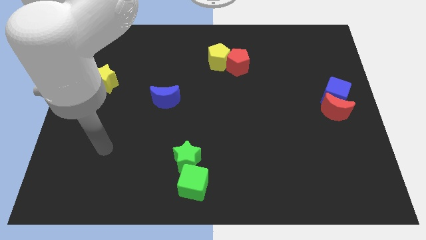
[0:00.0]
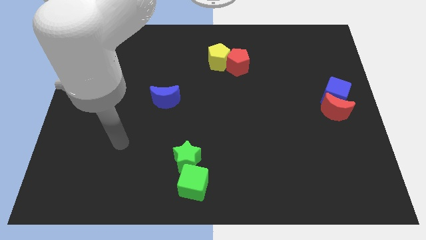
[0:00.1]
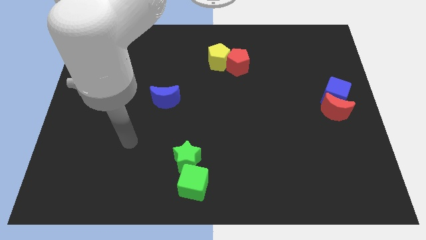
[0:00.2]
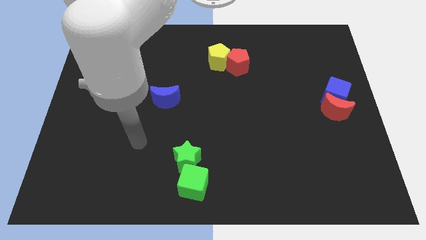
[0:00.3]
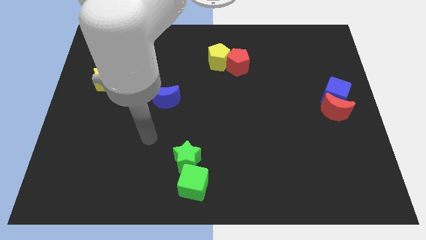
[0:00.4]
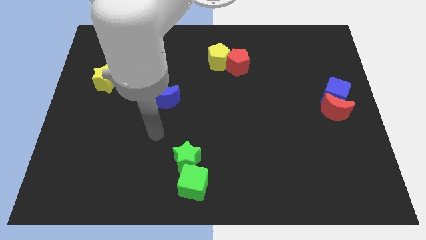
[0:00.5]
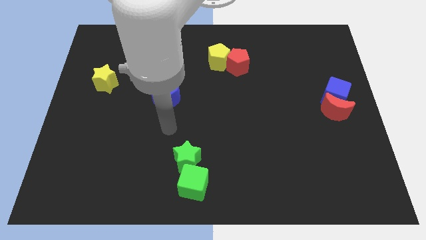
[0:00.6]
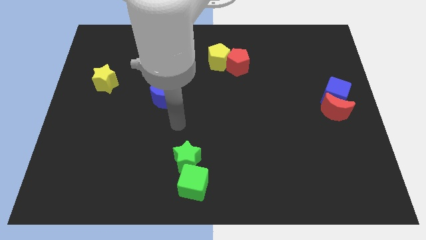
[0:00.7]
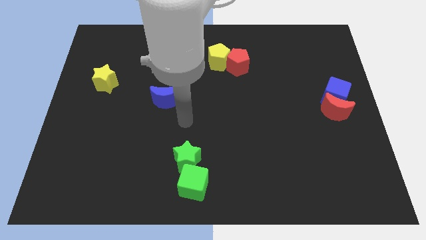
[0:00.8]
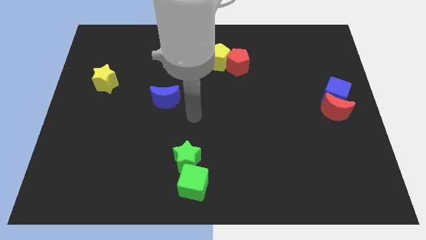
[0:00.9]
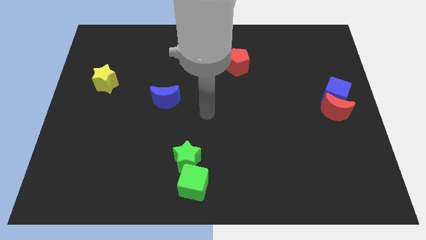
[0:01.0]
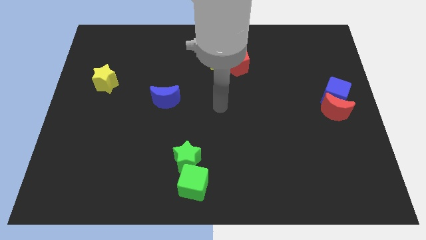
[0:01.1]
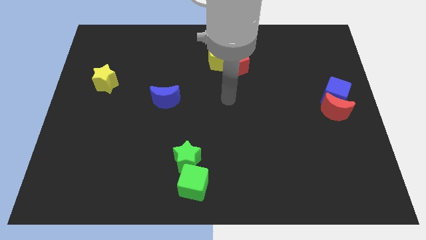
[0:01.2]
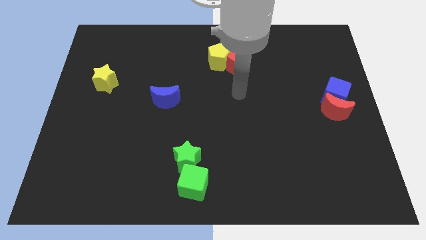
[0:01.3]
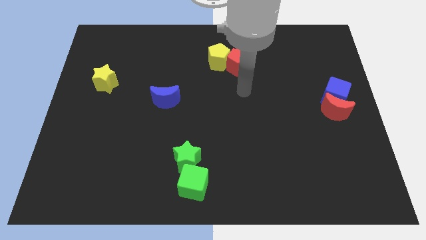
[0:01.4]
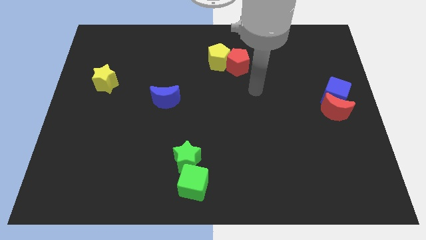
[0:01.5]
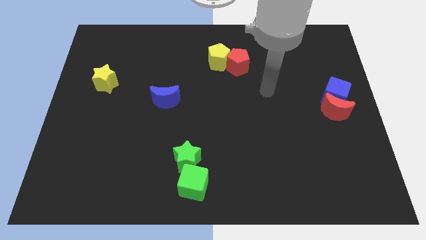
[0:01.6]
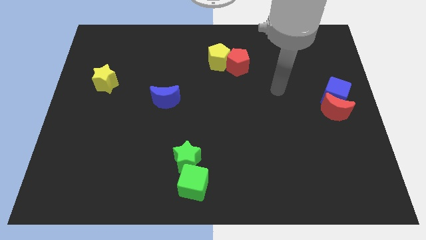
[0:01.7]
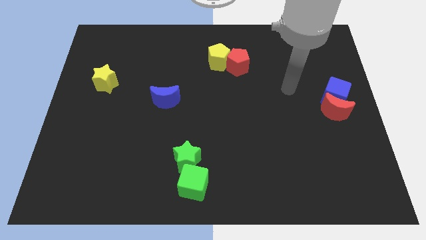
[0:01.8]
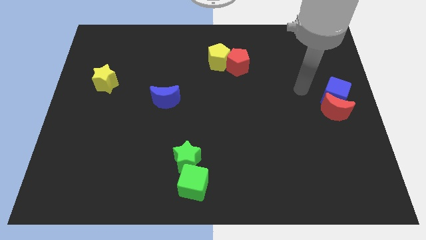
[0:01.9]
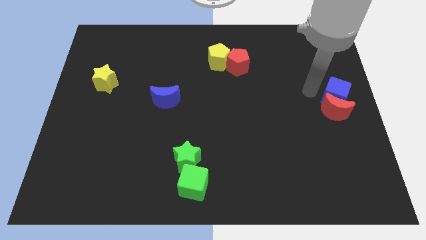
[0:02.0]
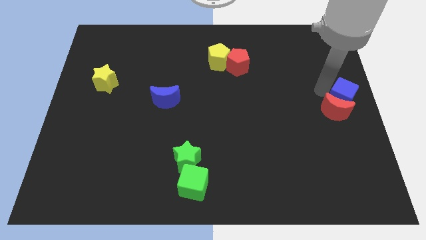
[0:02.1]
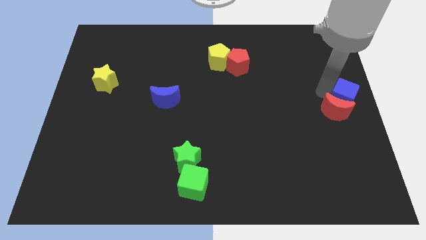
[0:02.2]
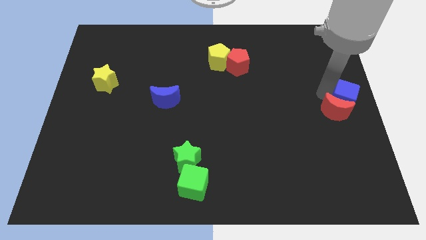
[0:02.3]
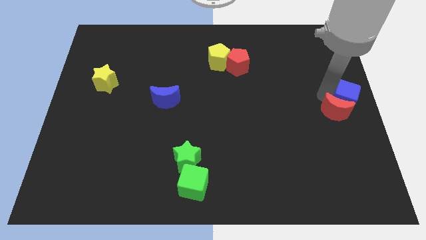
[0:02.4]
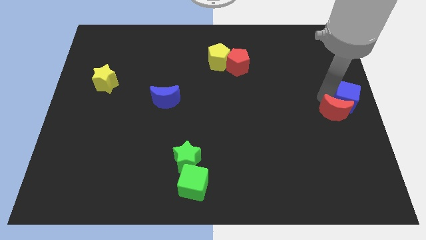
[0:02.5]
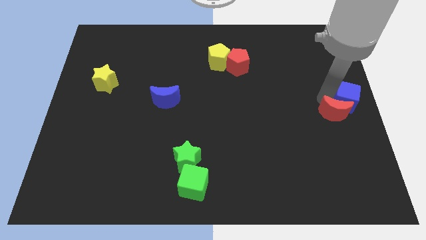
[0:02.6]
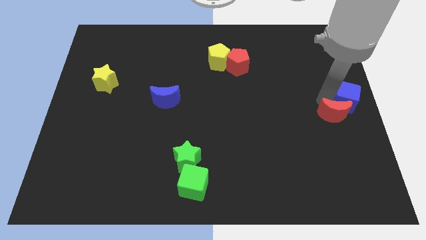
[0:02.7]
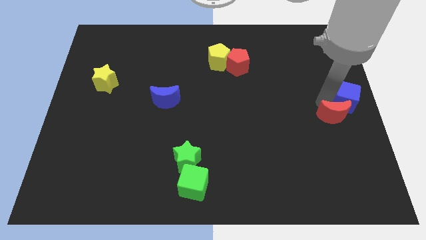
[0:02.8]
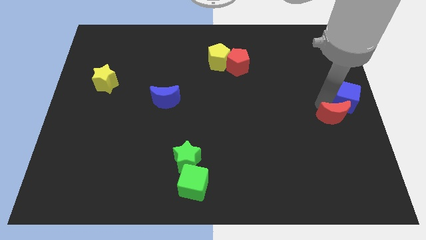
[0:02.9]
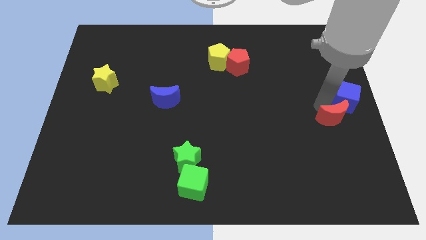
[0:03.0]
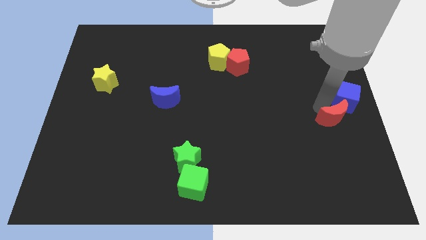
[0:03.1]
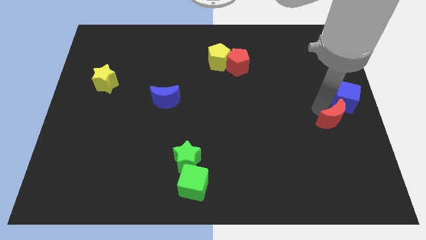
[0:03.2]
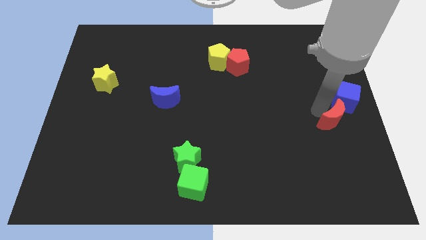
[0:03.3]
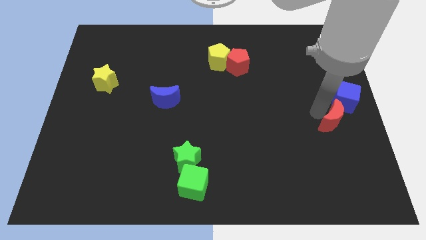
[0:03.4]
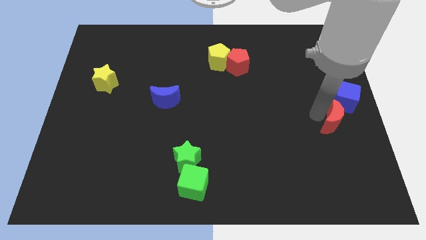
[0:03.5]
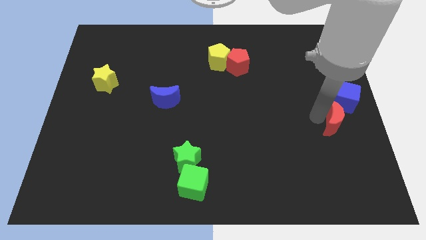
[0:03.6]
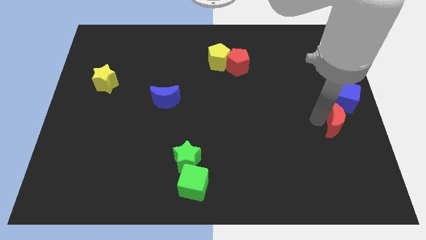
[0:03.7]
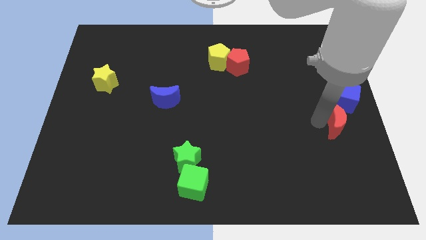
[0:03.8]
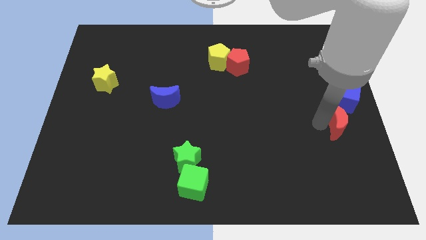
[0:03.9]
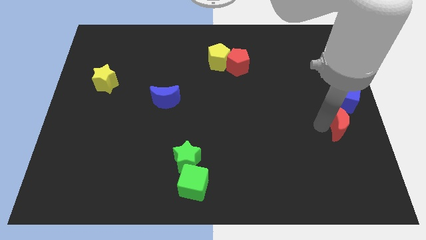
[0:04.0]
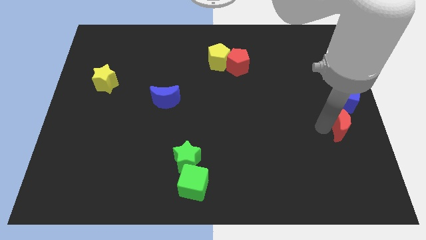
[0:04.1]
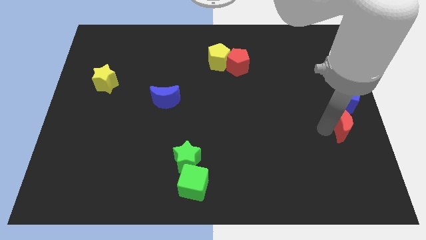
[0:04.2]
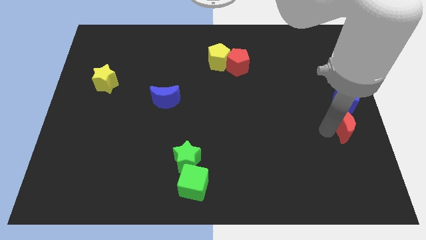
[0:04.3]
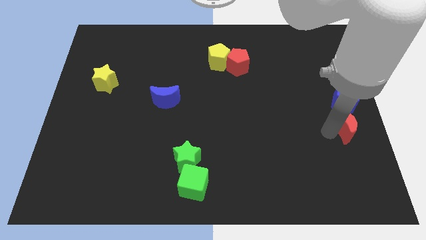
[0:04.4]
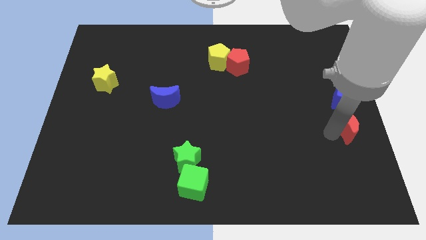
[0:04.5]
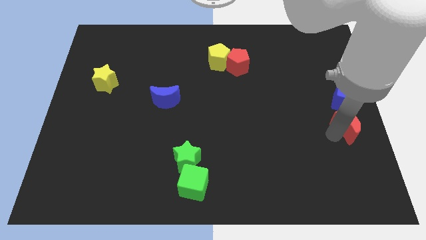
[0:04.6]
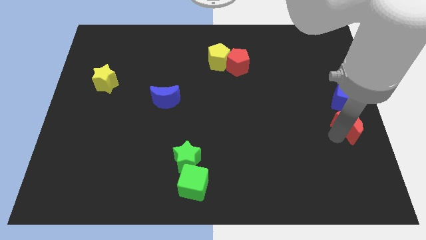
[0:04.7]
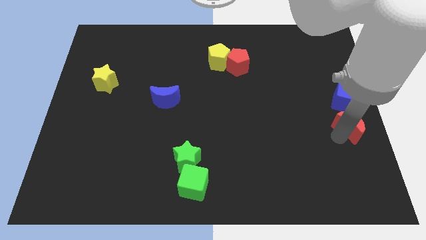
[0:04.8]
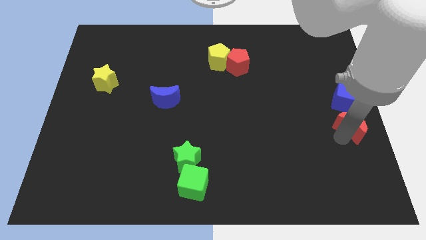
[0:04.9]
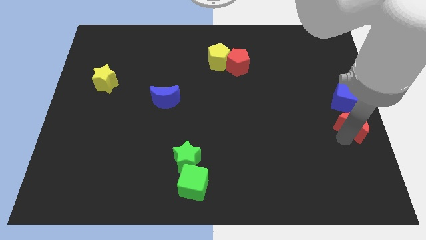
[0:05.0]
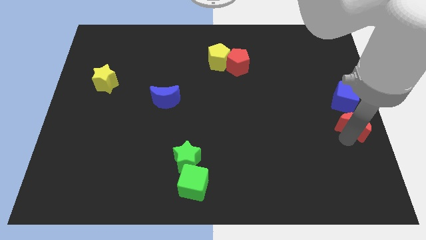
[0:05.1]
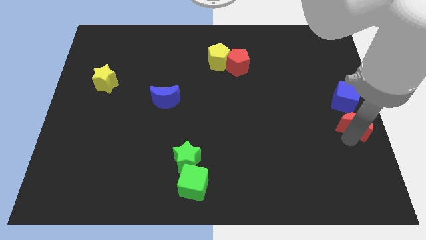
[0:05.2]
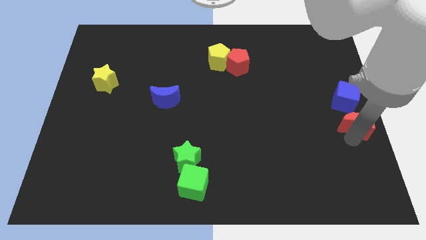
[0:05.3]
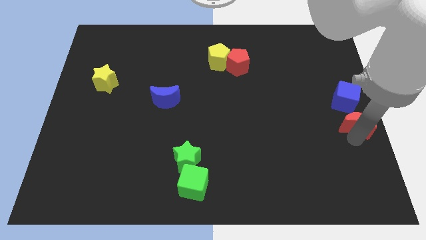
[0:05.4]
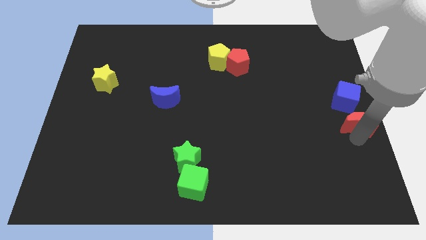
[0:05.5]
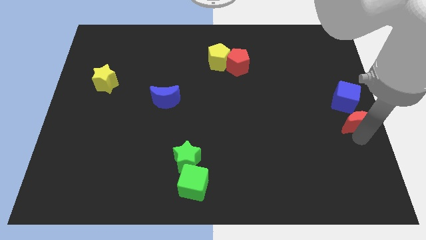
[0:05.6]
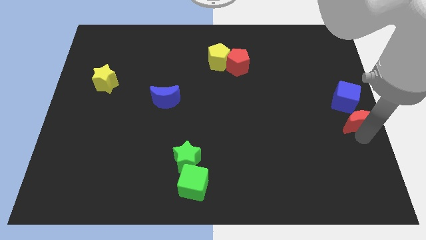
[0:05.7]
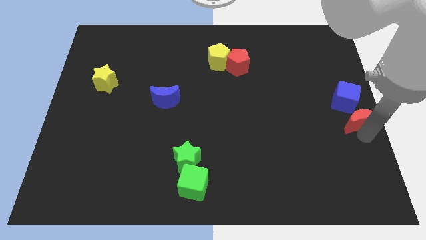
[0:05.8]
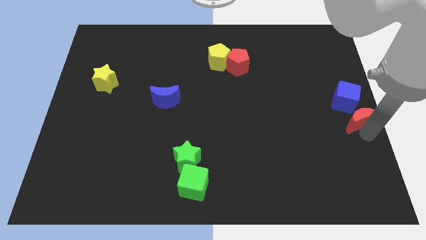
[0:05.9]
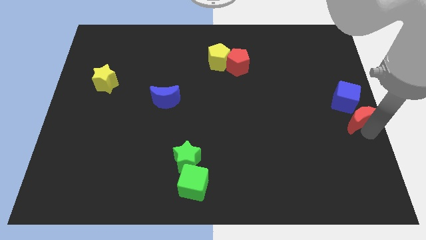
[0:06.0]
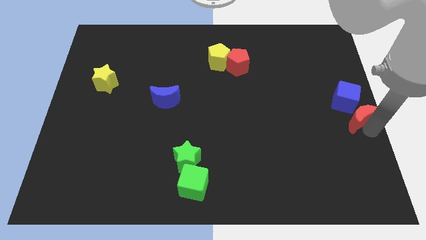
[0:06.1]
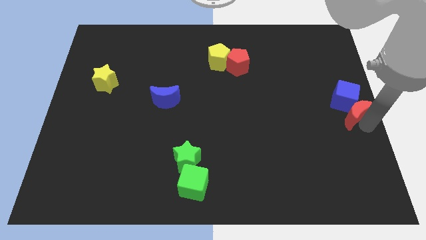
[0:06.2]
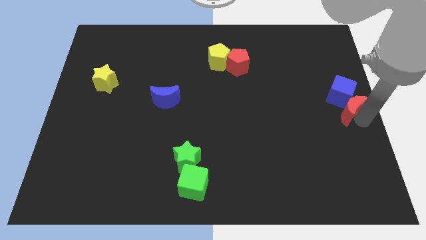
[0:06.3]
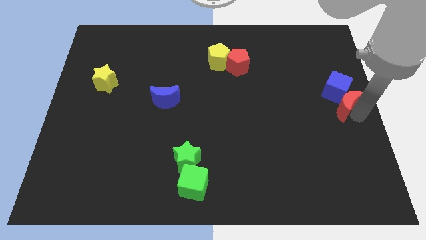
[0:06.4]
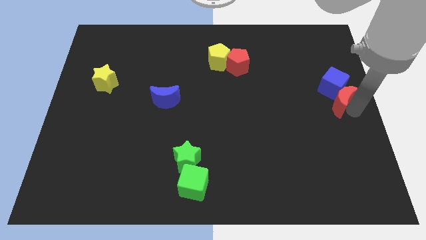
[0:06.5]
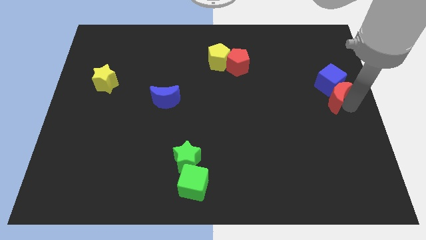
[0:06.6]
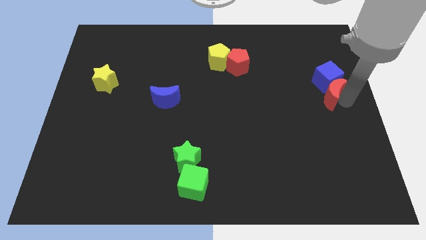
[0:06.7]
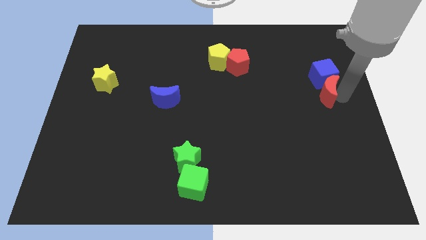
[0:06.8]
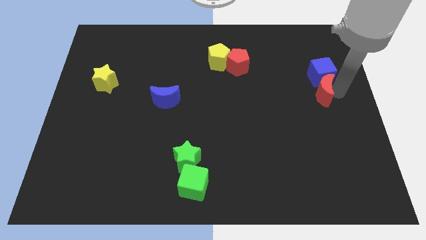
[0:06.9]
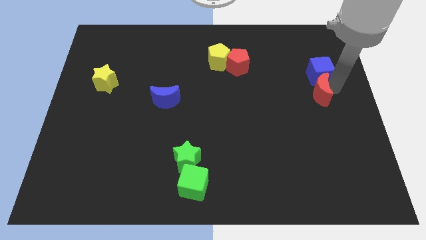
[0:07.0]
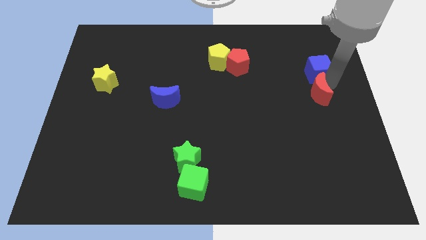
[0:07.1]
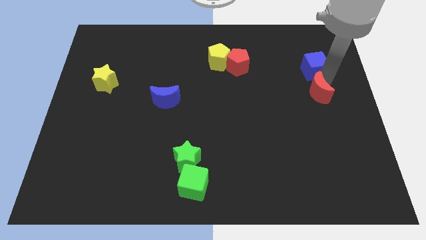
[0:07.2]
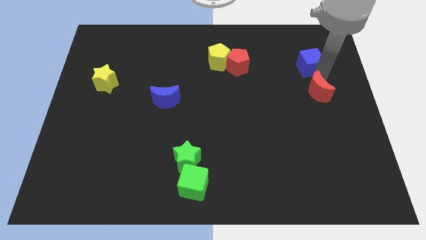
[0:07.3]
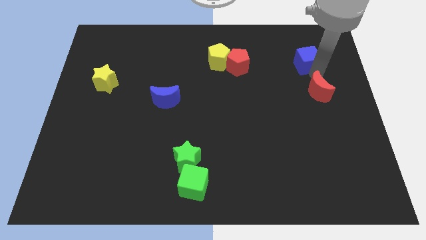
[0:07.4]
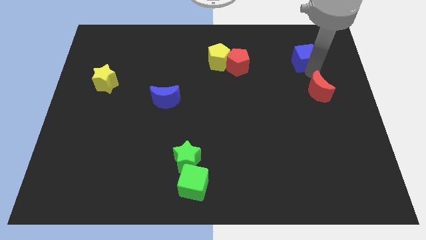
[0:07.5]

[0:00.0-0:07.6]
move the red moon away from the blue cube

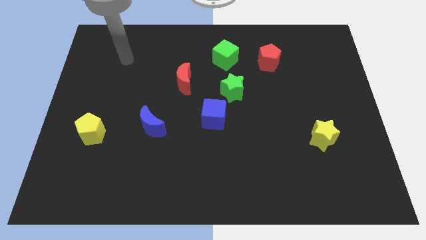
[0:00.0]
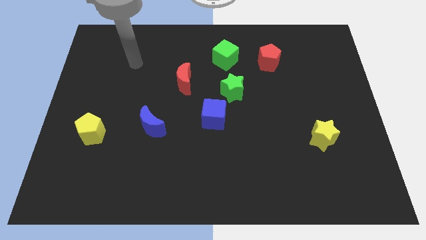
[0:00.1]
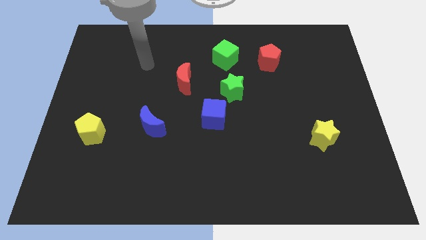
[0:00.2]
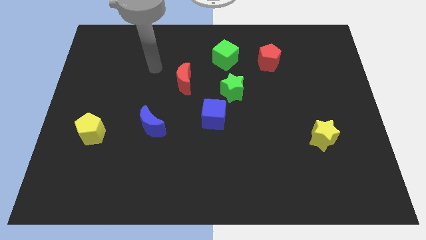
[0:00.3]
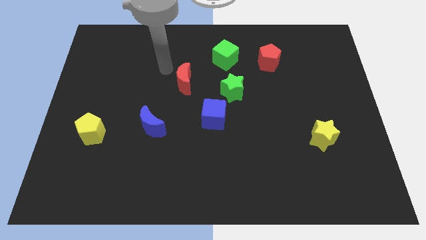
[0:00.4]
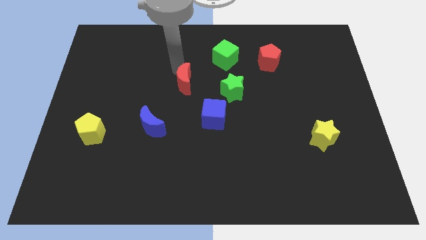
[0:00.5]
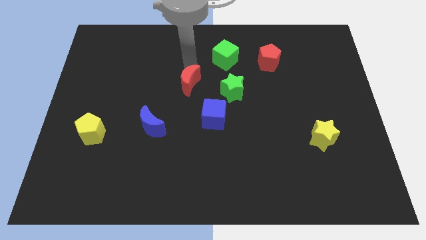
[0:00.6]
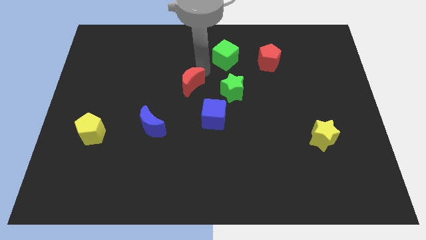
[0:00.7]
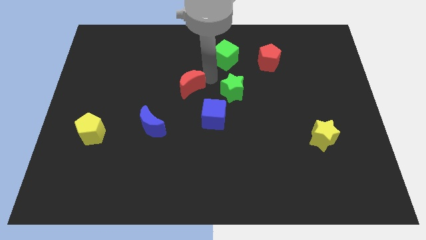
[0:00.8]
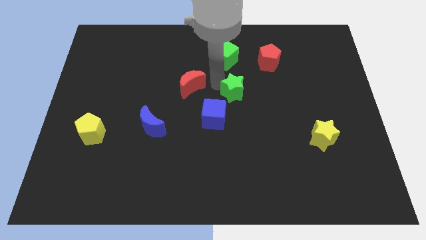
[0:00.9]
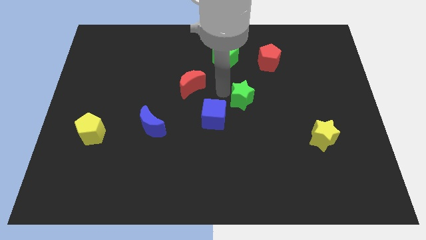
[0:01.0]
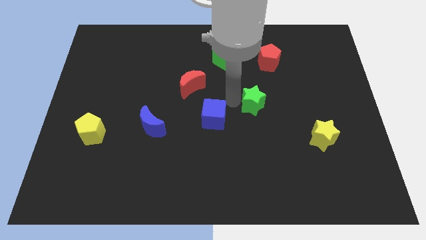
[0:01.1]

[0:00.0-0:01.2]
move the blue cube away from the green star

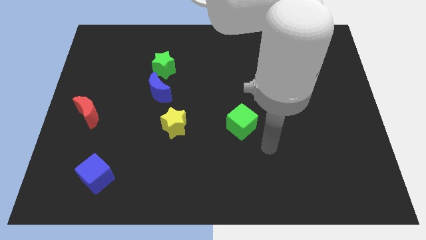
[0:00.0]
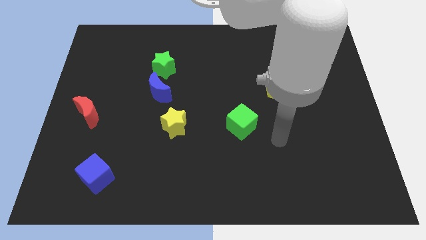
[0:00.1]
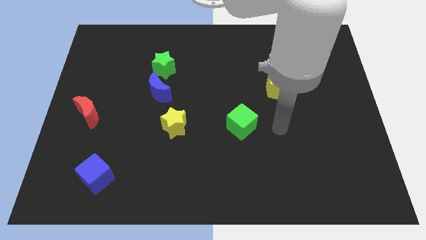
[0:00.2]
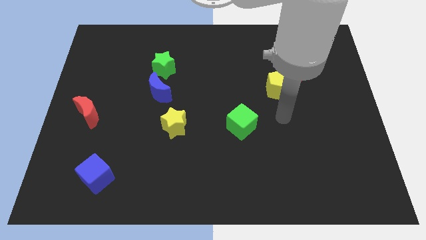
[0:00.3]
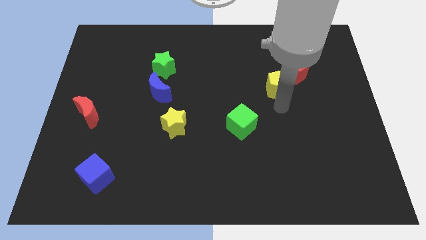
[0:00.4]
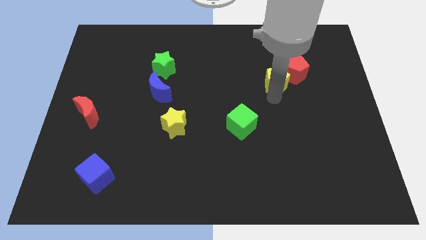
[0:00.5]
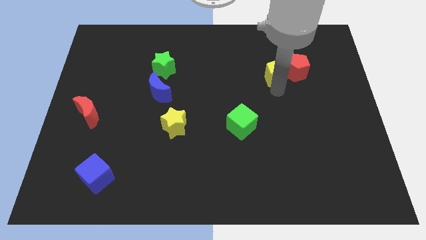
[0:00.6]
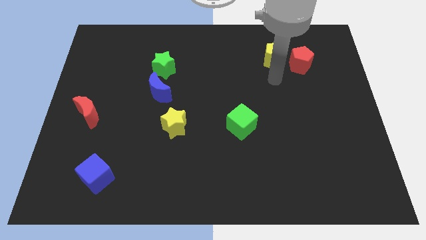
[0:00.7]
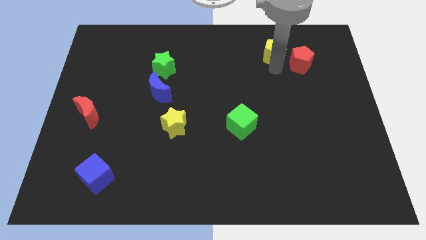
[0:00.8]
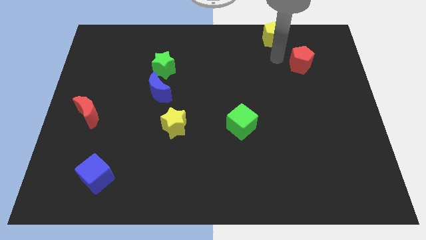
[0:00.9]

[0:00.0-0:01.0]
pull the red pentagon apart from the yellow pentagon
